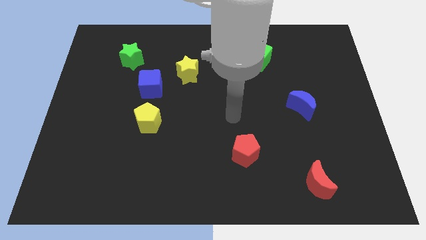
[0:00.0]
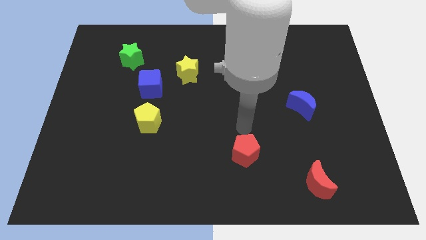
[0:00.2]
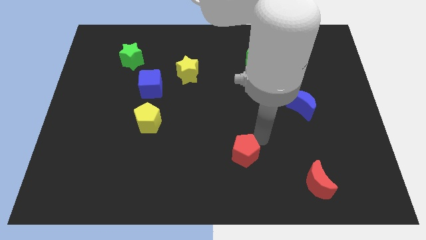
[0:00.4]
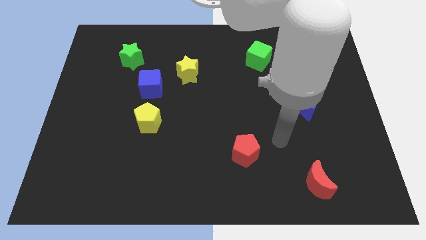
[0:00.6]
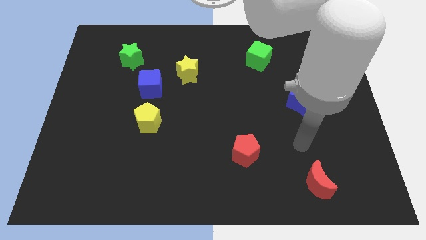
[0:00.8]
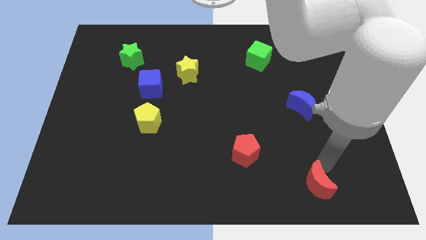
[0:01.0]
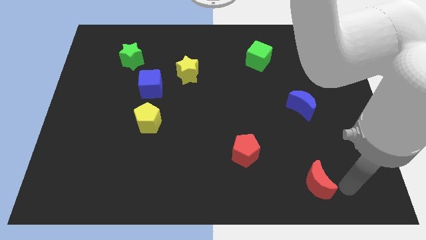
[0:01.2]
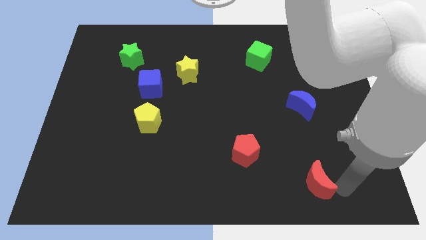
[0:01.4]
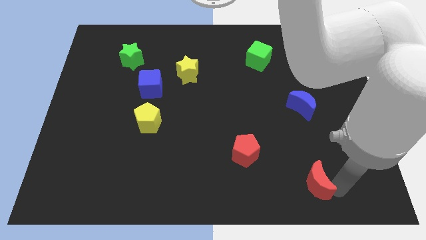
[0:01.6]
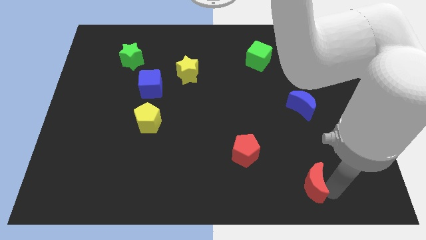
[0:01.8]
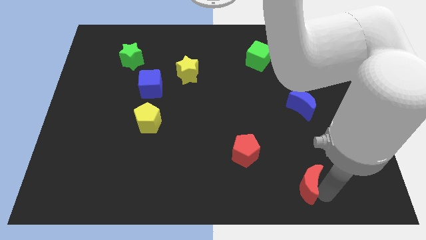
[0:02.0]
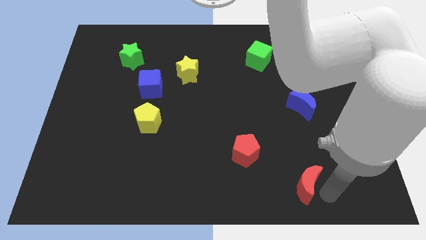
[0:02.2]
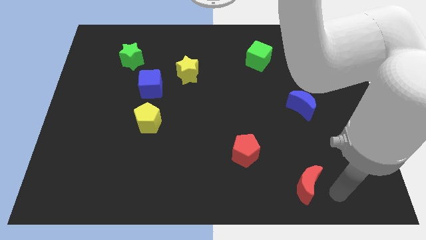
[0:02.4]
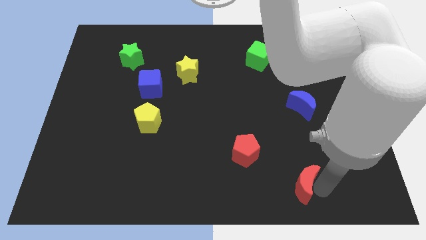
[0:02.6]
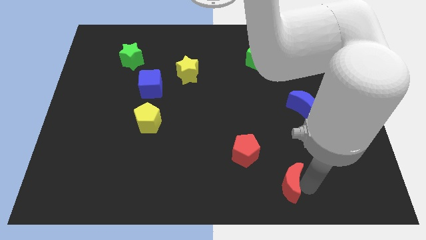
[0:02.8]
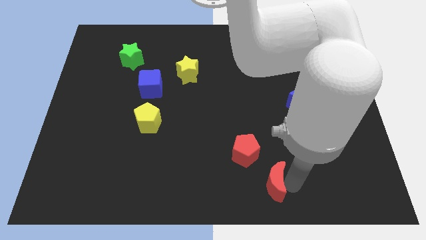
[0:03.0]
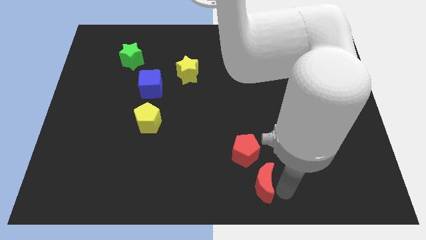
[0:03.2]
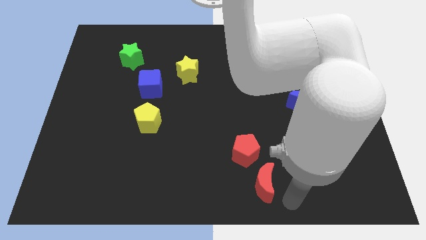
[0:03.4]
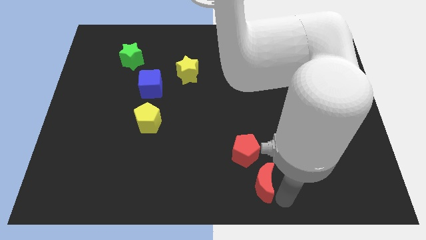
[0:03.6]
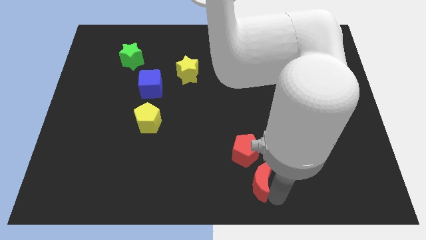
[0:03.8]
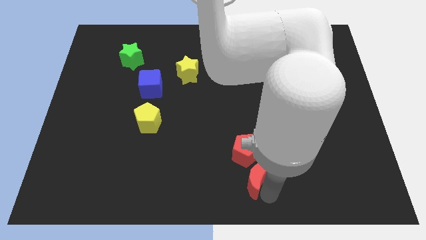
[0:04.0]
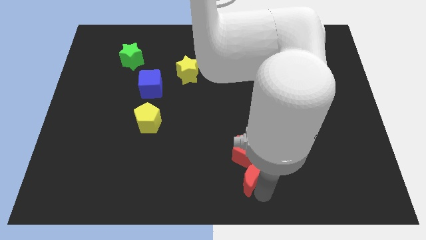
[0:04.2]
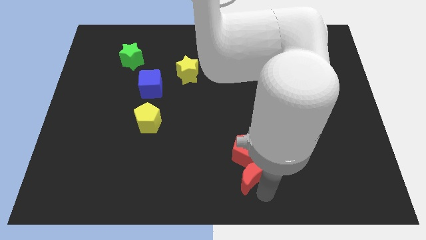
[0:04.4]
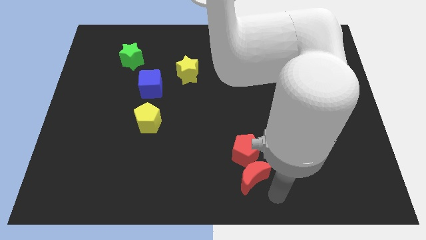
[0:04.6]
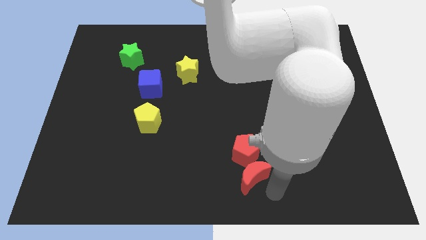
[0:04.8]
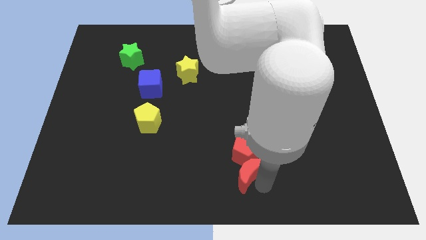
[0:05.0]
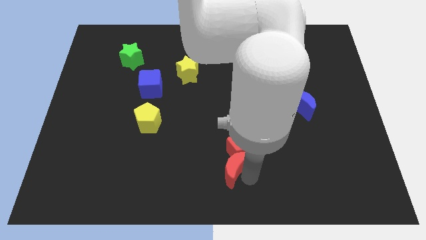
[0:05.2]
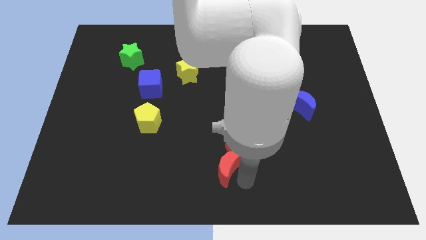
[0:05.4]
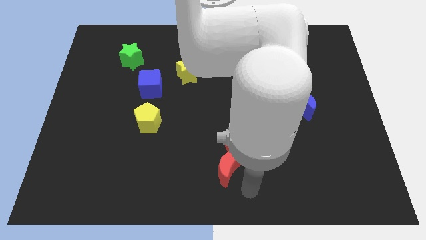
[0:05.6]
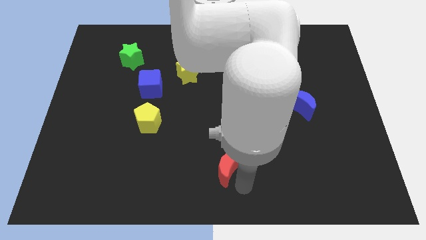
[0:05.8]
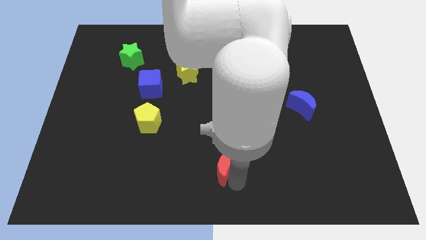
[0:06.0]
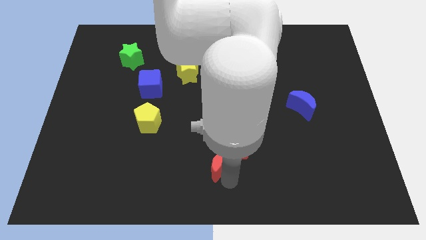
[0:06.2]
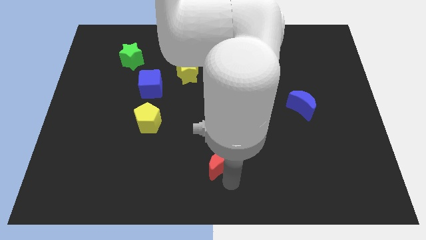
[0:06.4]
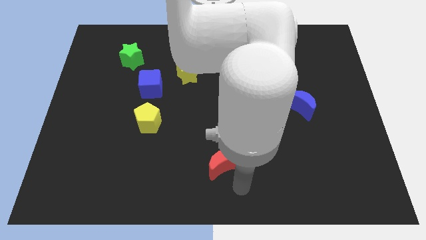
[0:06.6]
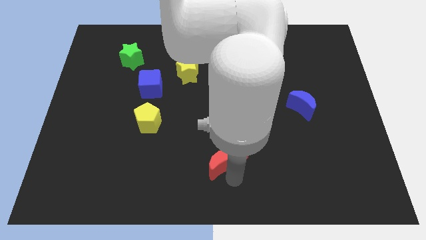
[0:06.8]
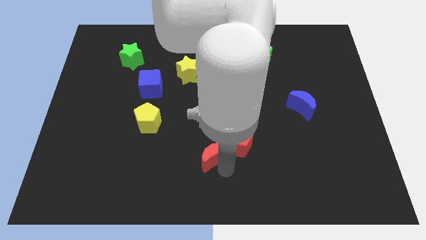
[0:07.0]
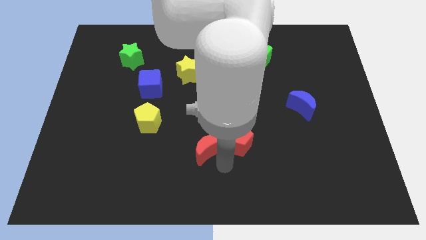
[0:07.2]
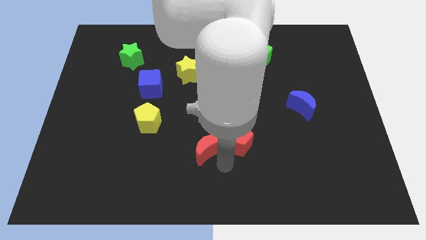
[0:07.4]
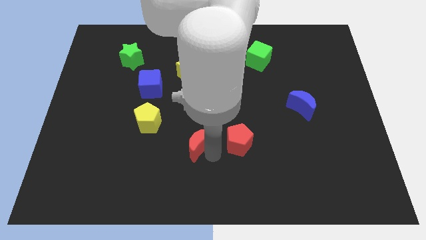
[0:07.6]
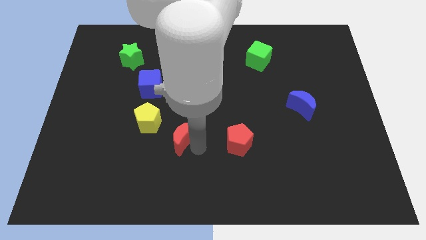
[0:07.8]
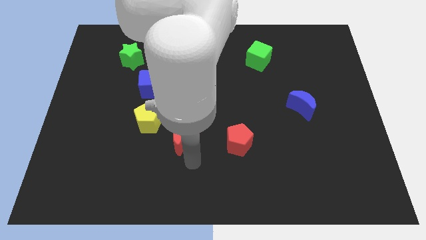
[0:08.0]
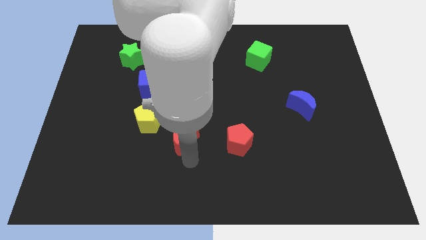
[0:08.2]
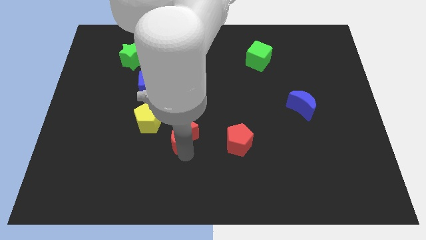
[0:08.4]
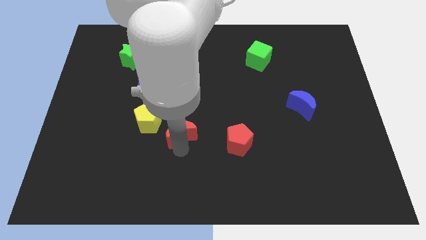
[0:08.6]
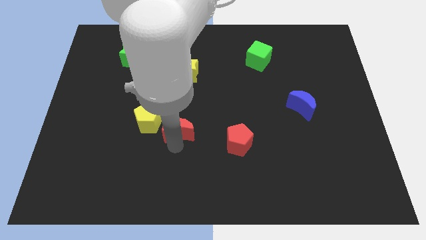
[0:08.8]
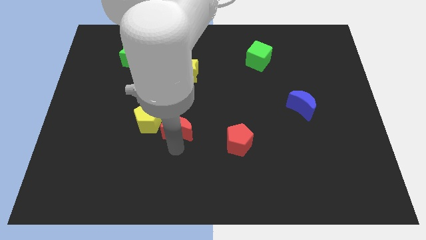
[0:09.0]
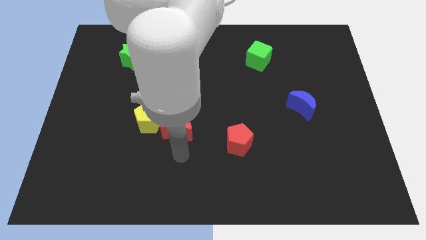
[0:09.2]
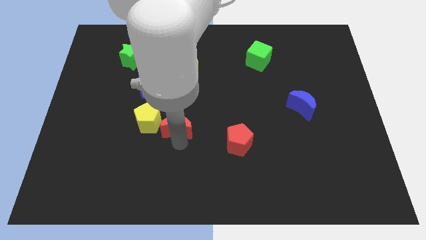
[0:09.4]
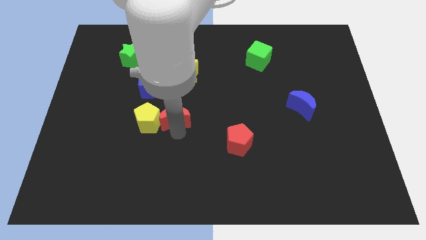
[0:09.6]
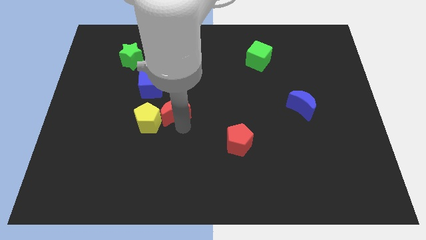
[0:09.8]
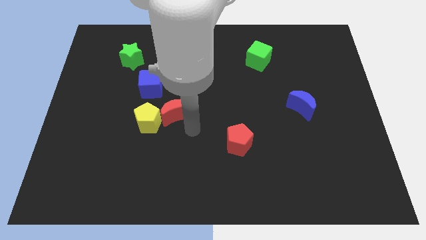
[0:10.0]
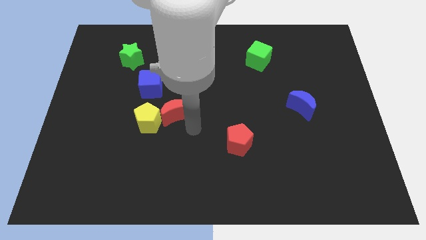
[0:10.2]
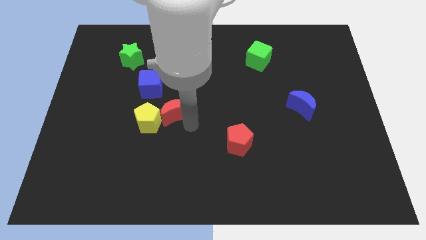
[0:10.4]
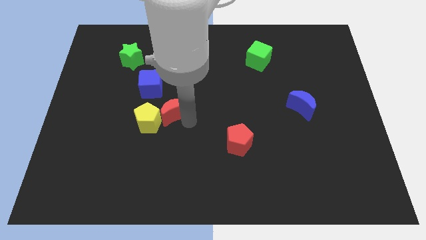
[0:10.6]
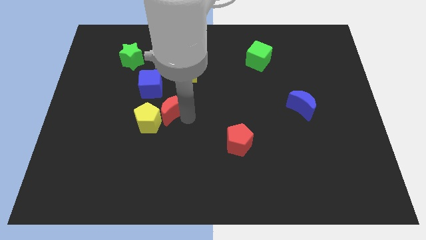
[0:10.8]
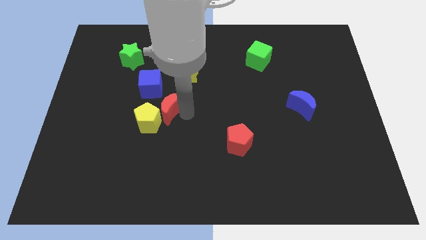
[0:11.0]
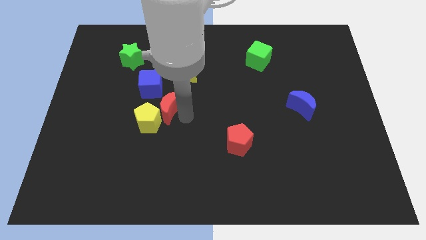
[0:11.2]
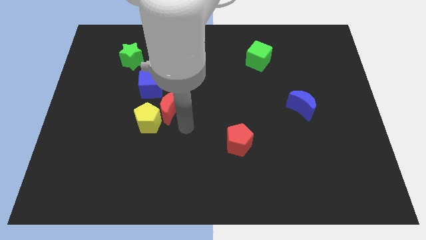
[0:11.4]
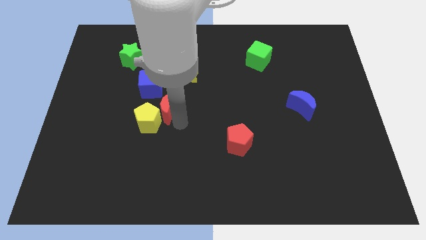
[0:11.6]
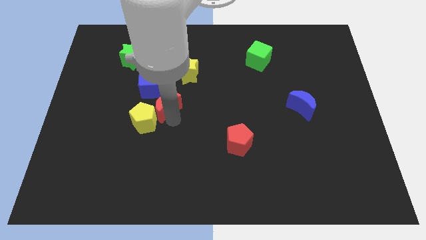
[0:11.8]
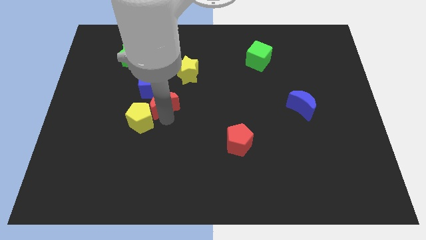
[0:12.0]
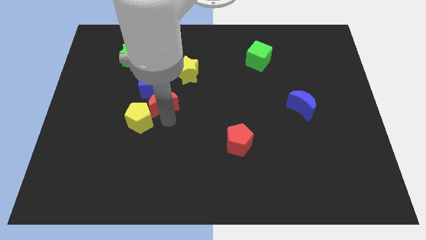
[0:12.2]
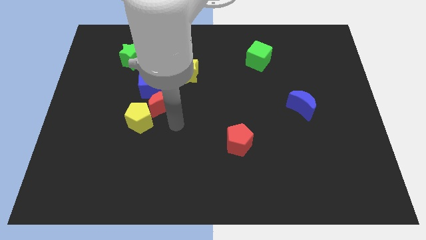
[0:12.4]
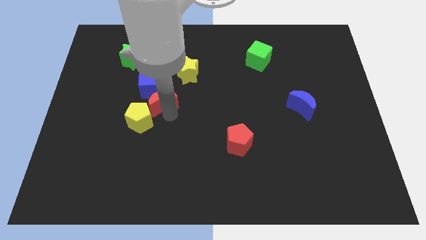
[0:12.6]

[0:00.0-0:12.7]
put the red moon towards the blue cube
